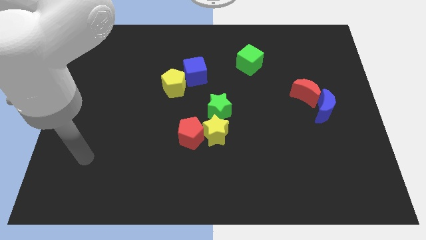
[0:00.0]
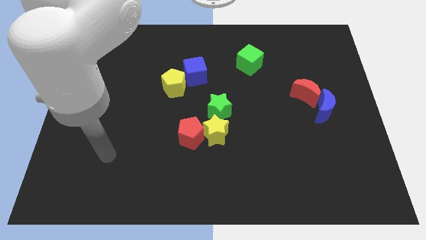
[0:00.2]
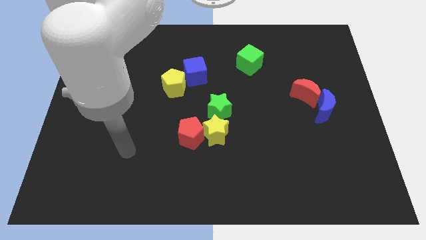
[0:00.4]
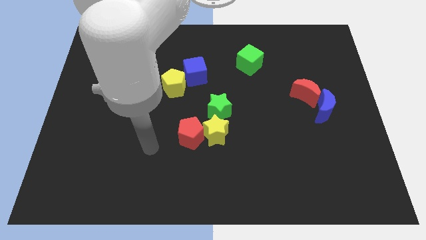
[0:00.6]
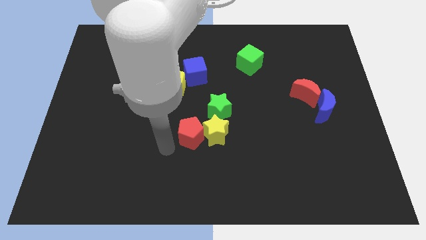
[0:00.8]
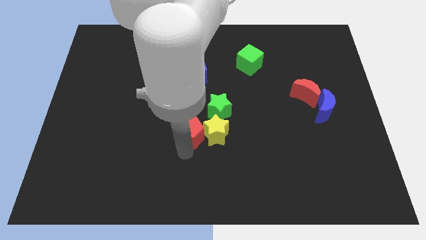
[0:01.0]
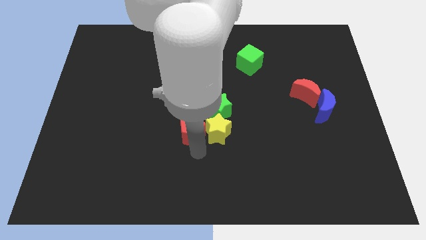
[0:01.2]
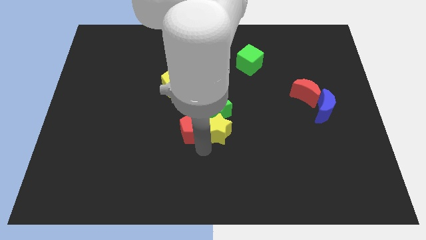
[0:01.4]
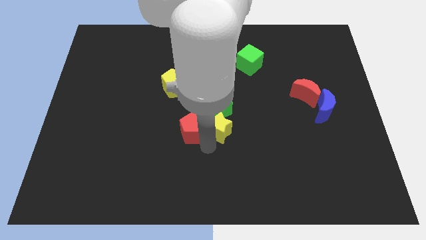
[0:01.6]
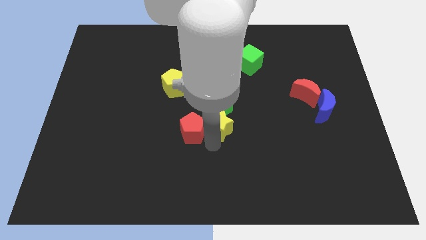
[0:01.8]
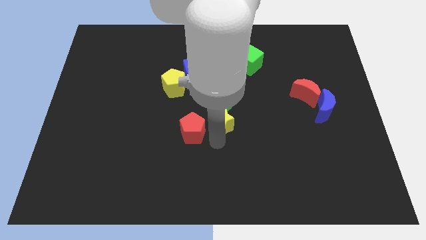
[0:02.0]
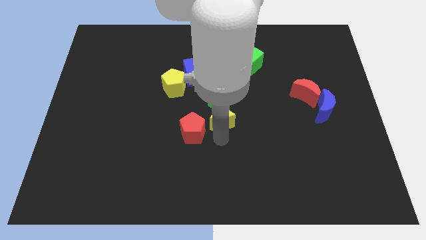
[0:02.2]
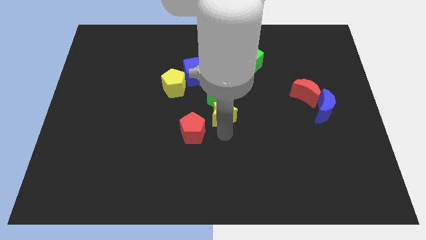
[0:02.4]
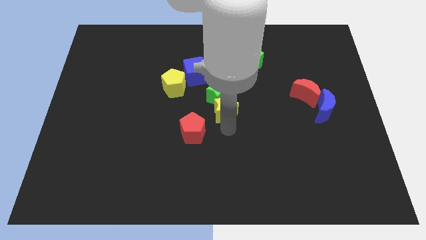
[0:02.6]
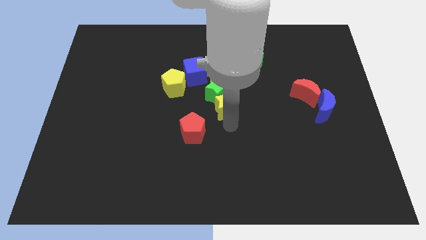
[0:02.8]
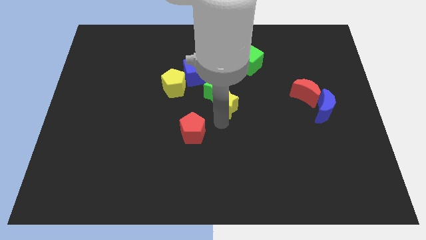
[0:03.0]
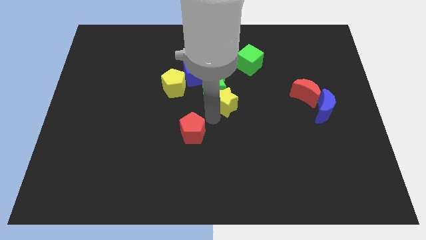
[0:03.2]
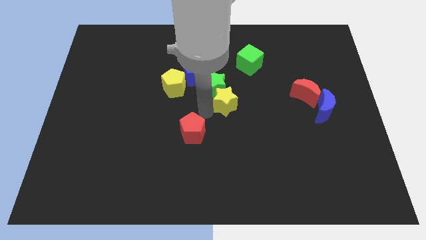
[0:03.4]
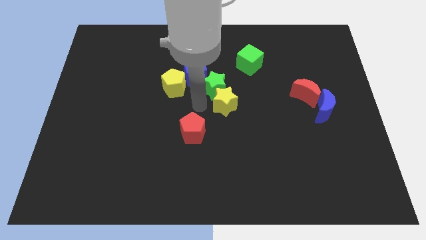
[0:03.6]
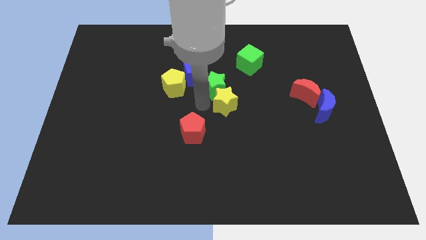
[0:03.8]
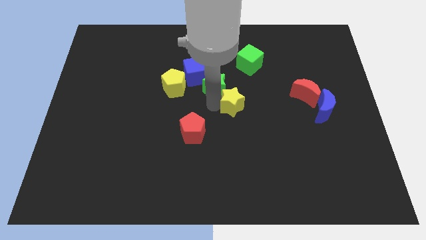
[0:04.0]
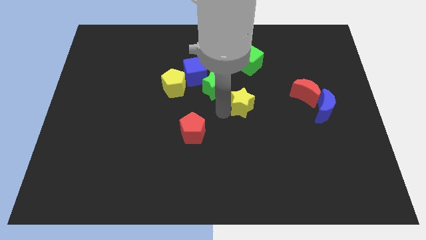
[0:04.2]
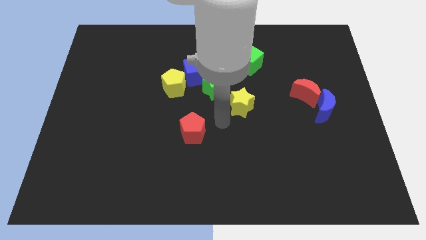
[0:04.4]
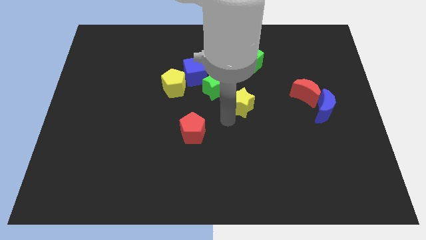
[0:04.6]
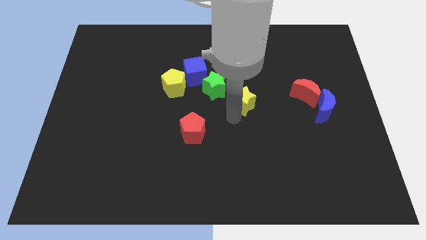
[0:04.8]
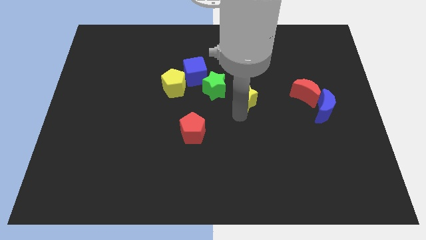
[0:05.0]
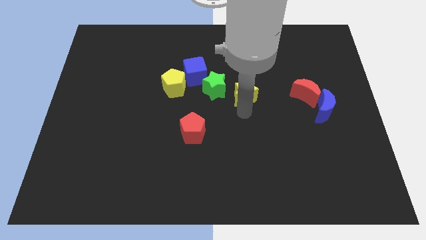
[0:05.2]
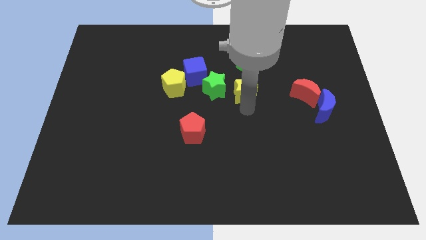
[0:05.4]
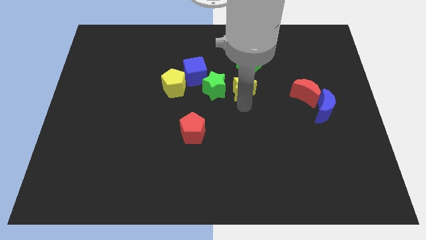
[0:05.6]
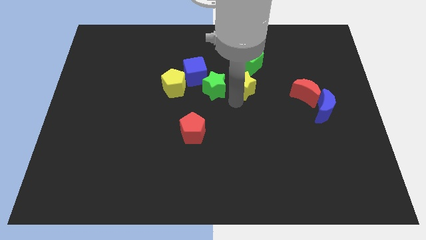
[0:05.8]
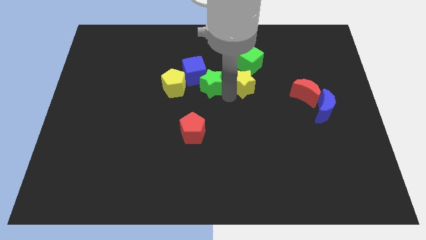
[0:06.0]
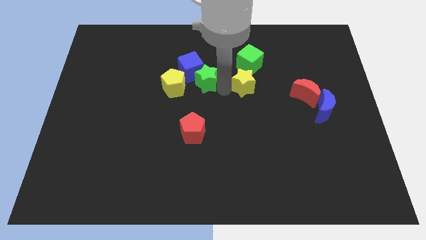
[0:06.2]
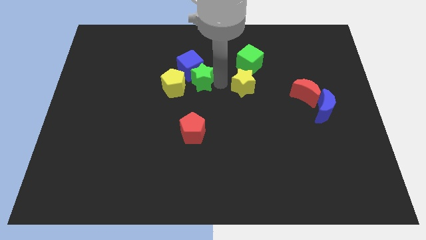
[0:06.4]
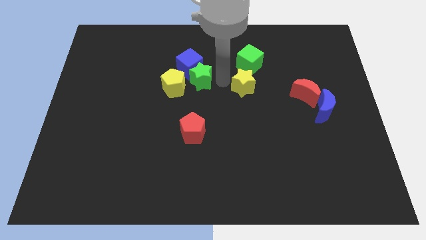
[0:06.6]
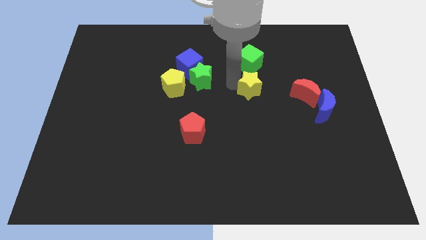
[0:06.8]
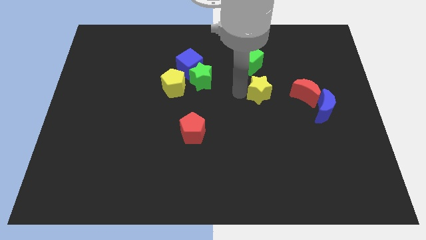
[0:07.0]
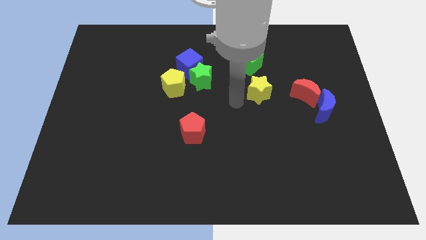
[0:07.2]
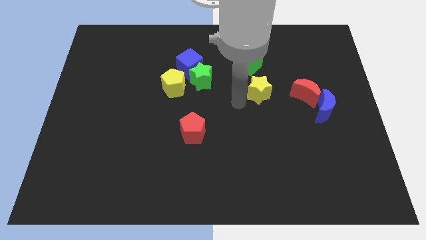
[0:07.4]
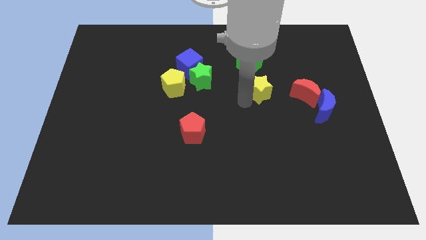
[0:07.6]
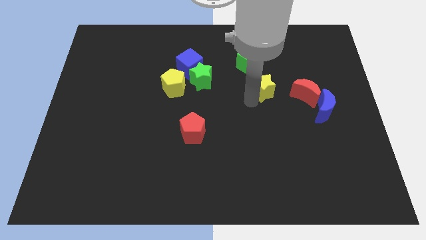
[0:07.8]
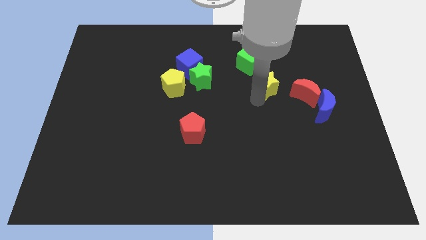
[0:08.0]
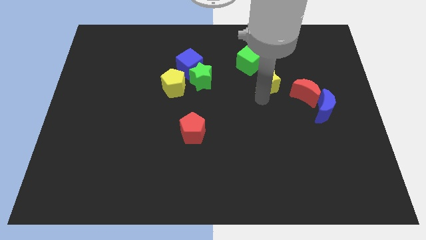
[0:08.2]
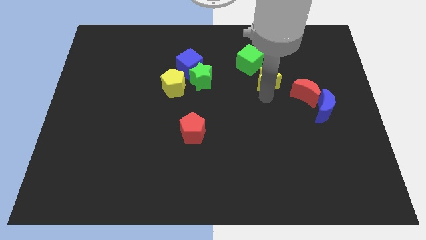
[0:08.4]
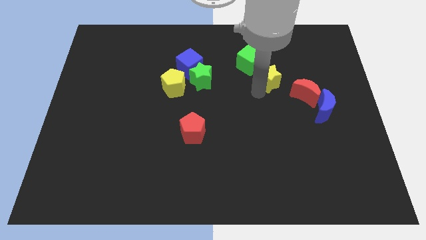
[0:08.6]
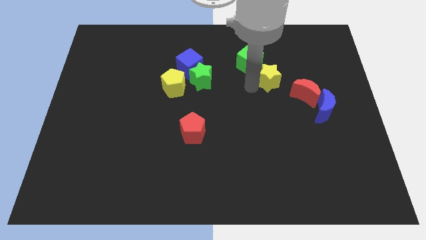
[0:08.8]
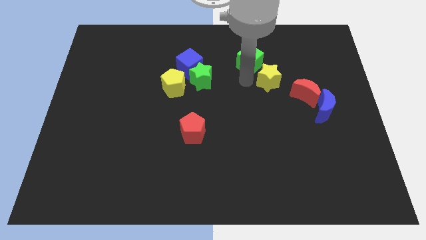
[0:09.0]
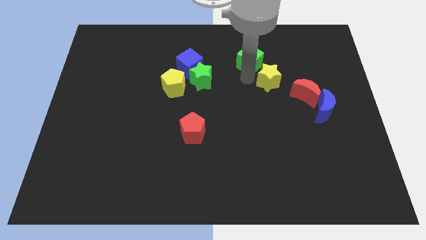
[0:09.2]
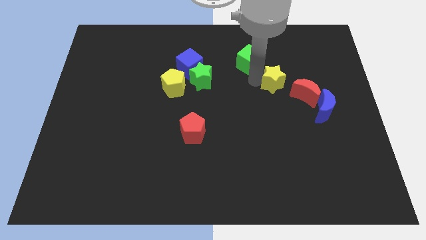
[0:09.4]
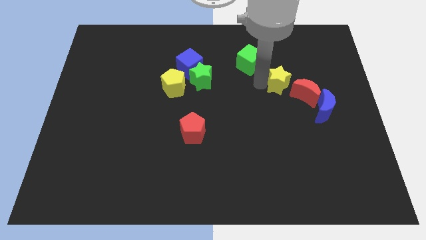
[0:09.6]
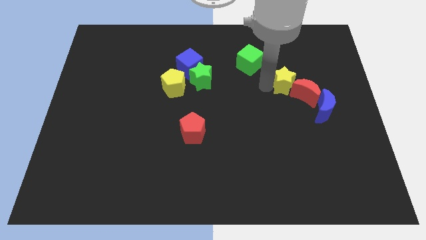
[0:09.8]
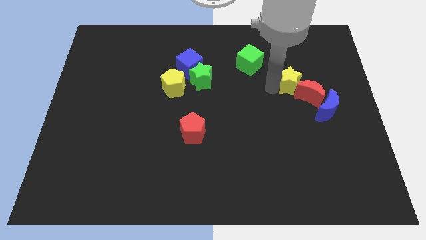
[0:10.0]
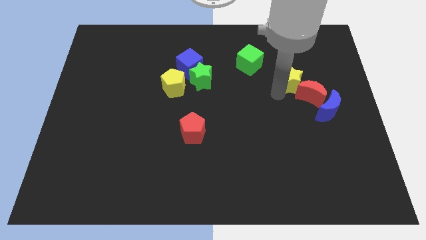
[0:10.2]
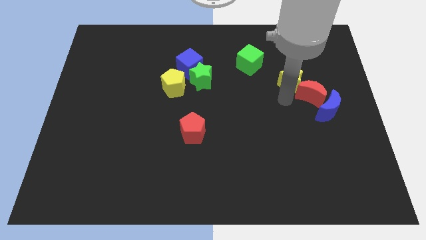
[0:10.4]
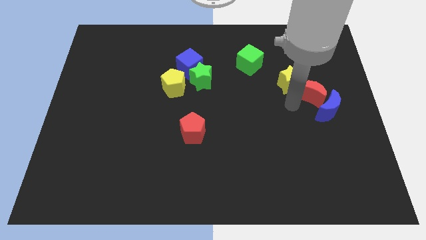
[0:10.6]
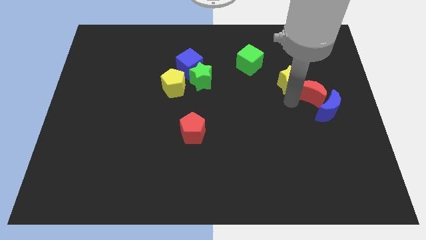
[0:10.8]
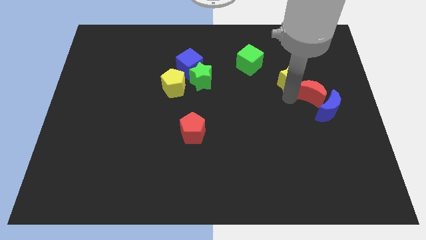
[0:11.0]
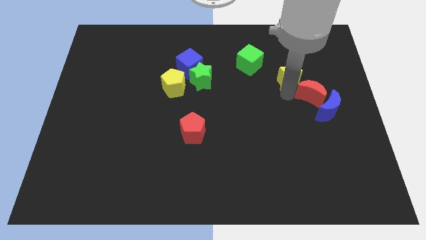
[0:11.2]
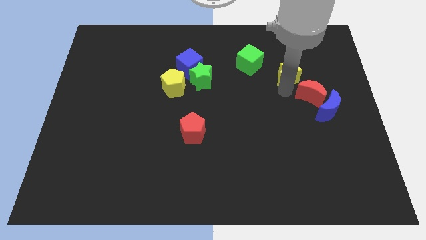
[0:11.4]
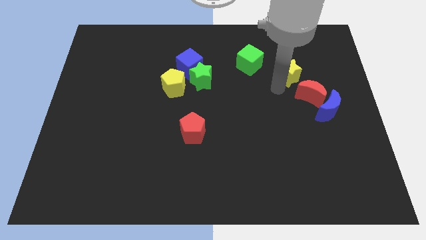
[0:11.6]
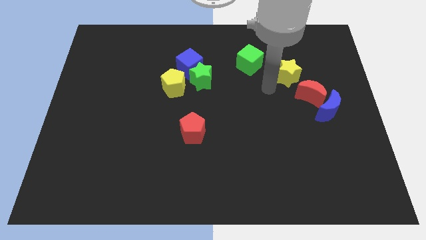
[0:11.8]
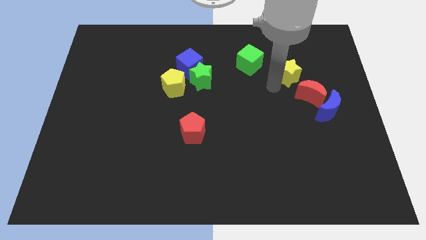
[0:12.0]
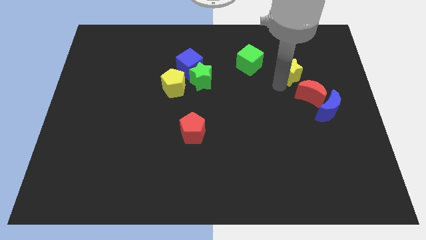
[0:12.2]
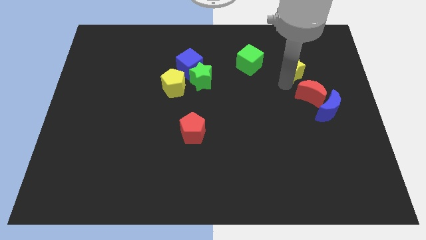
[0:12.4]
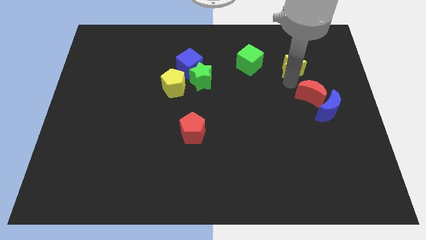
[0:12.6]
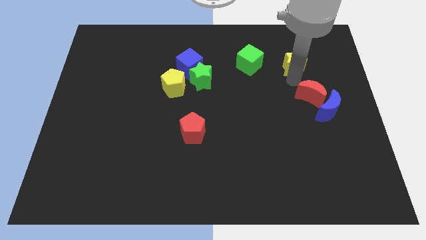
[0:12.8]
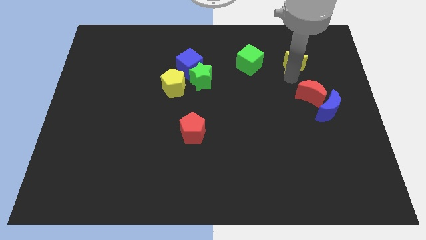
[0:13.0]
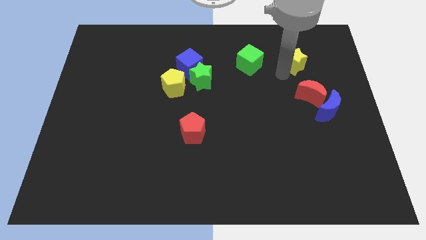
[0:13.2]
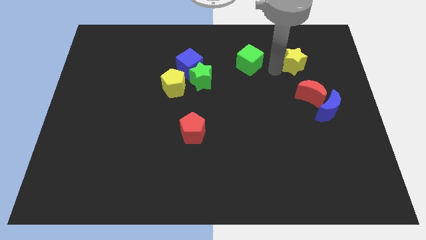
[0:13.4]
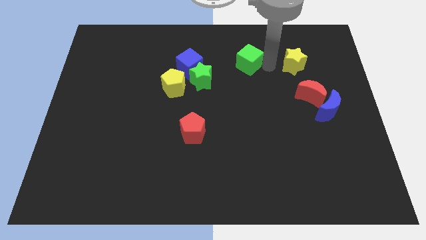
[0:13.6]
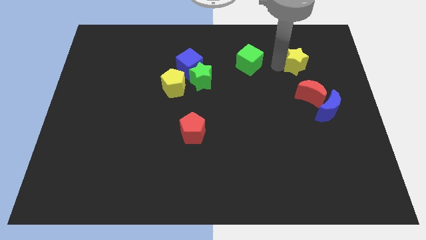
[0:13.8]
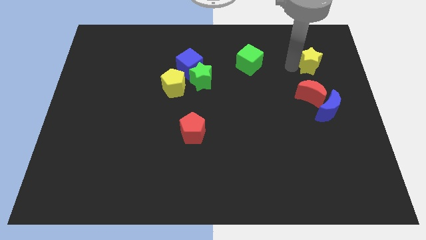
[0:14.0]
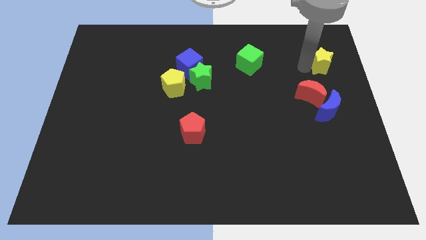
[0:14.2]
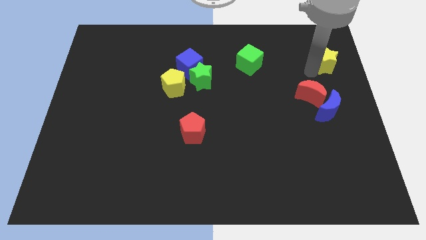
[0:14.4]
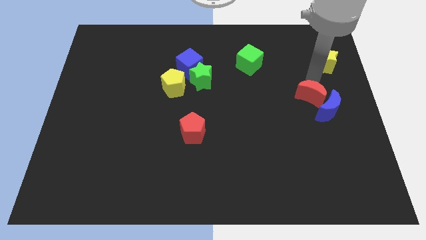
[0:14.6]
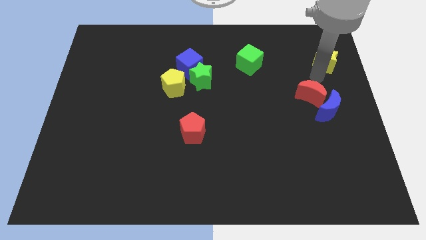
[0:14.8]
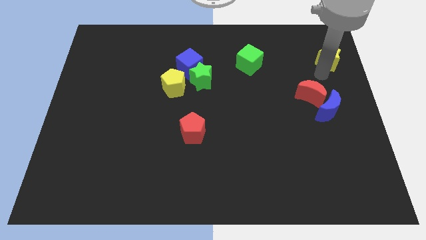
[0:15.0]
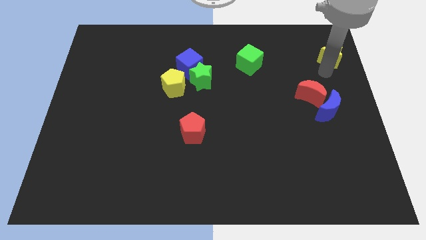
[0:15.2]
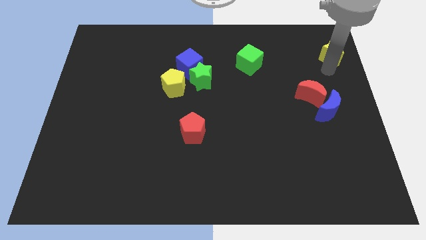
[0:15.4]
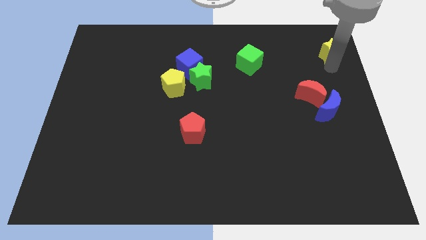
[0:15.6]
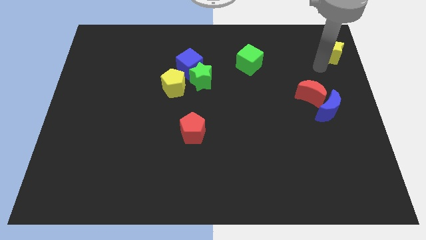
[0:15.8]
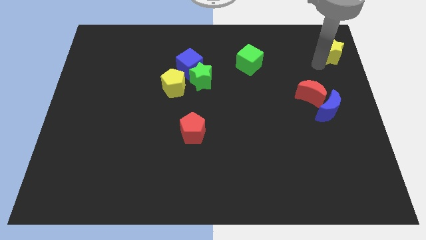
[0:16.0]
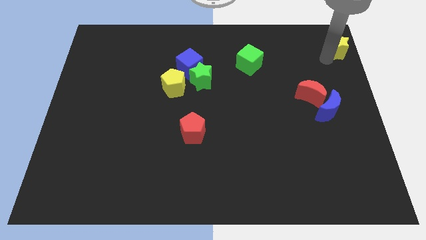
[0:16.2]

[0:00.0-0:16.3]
put the yellow star to the top right of the board
